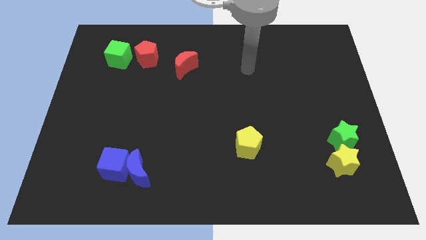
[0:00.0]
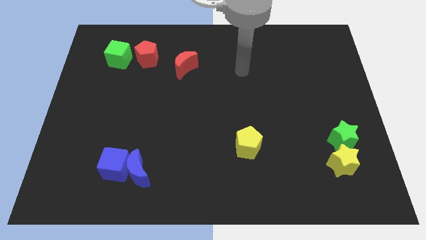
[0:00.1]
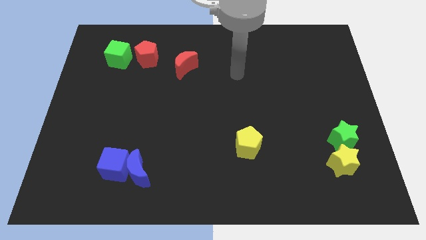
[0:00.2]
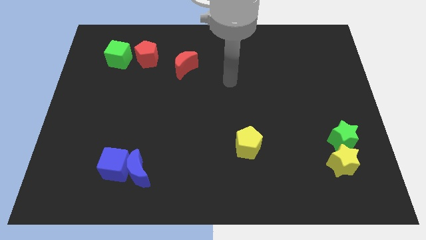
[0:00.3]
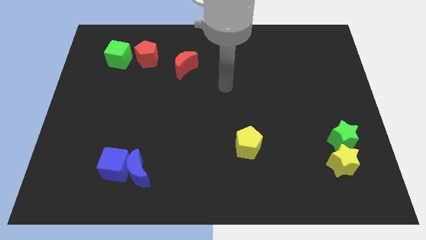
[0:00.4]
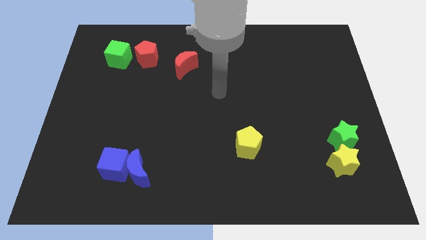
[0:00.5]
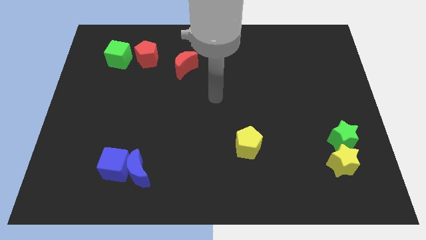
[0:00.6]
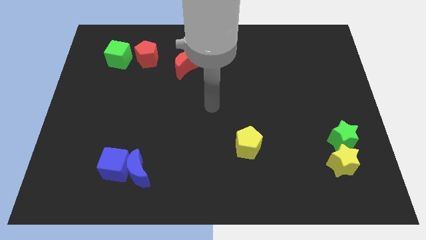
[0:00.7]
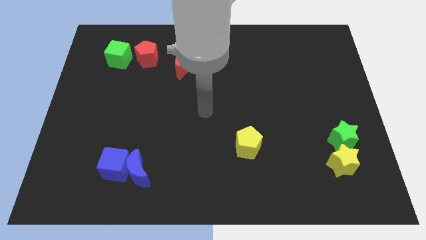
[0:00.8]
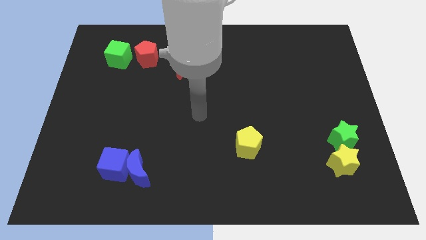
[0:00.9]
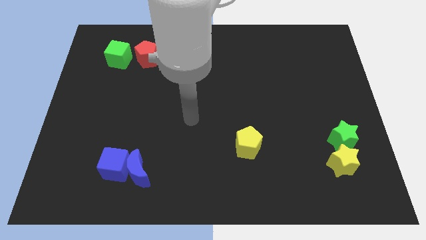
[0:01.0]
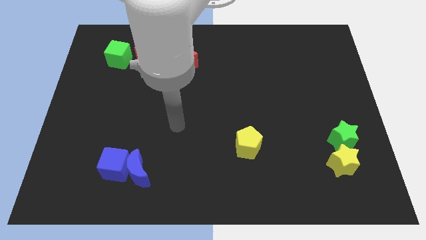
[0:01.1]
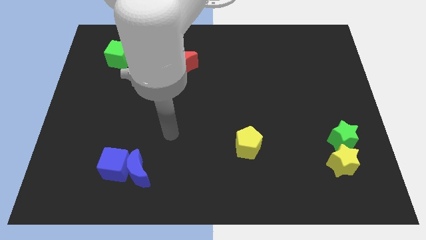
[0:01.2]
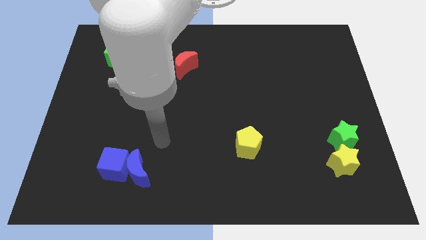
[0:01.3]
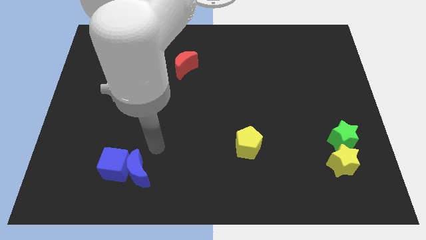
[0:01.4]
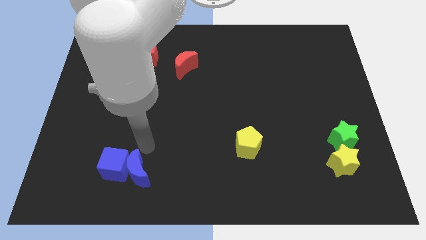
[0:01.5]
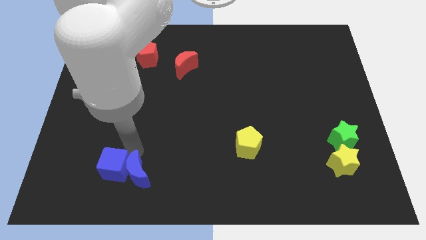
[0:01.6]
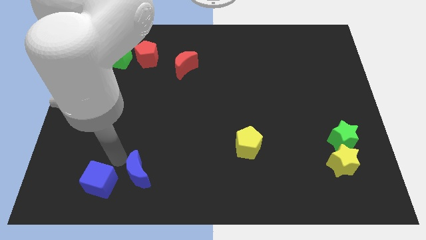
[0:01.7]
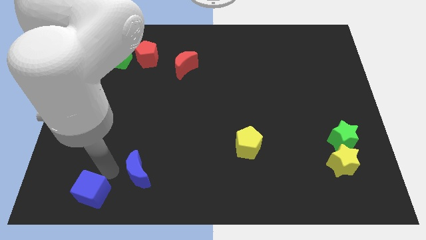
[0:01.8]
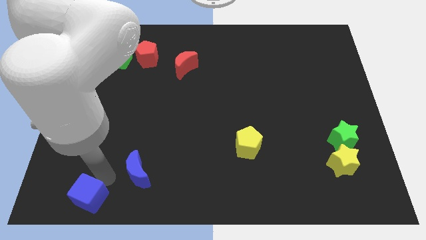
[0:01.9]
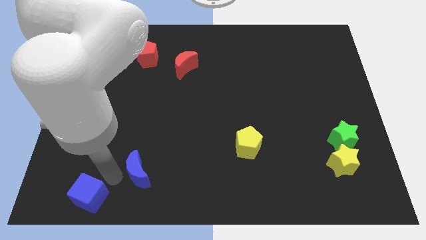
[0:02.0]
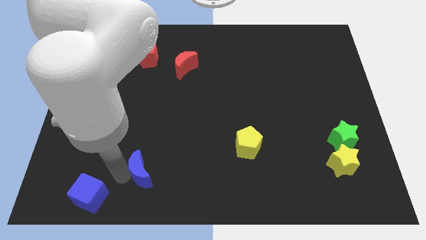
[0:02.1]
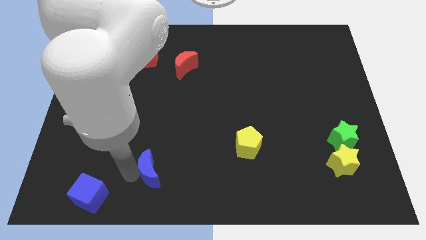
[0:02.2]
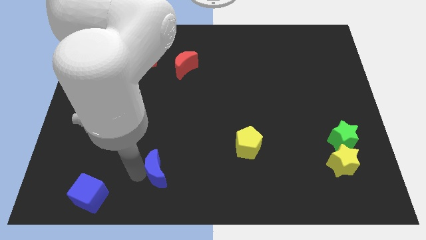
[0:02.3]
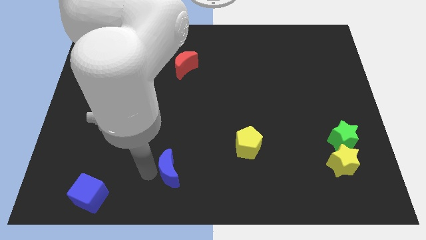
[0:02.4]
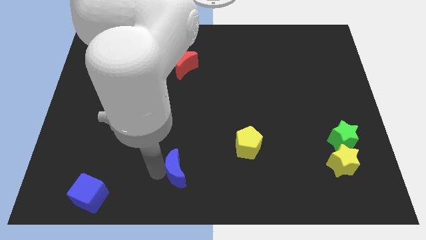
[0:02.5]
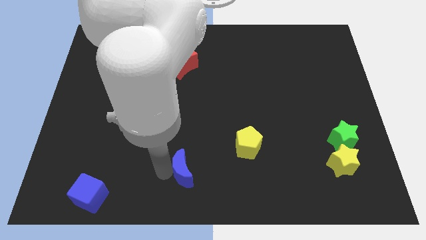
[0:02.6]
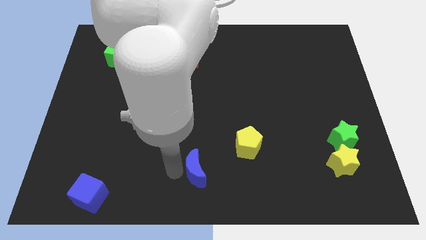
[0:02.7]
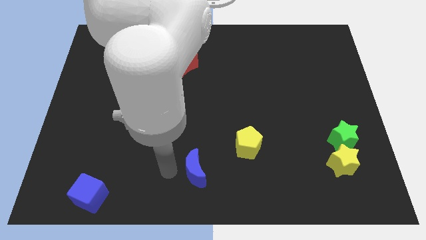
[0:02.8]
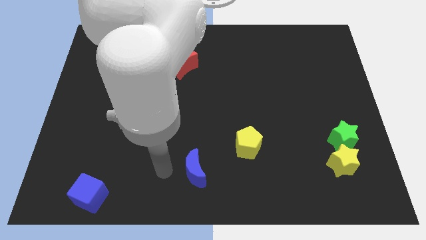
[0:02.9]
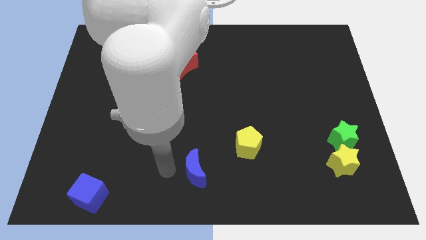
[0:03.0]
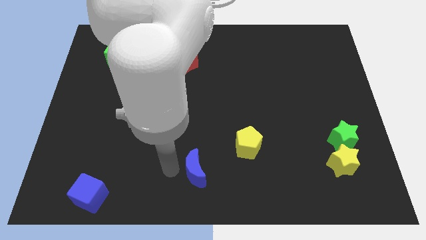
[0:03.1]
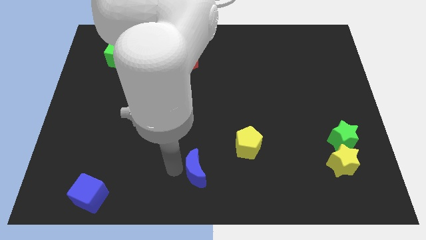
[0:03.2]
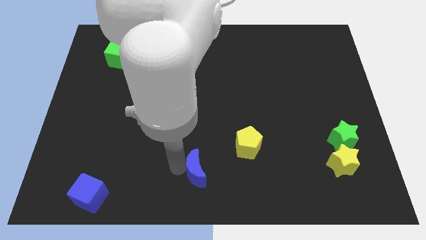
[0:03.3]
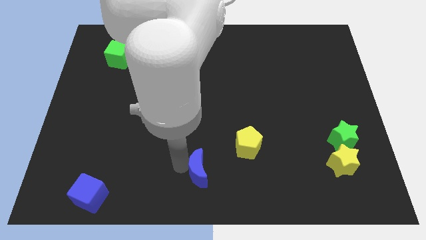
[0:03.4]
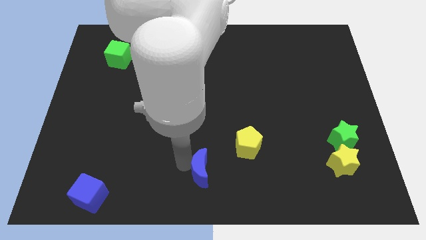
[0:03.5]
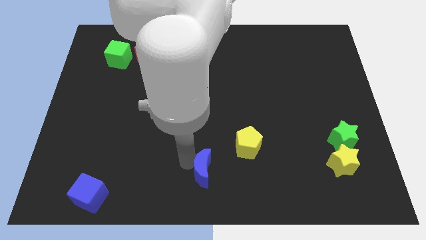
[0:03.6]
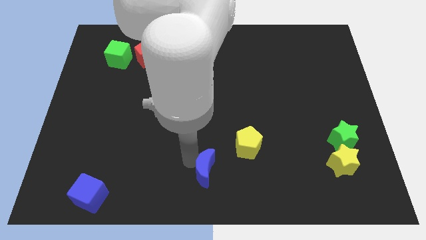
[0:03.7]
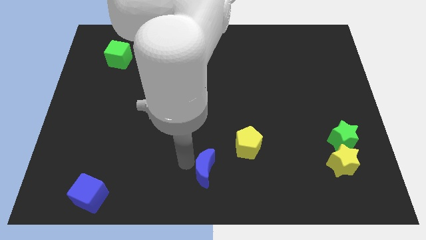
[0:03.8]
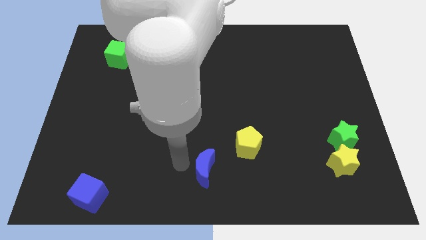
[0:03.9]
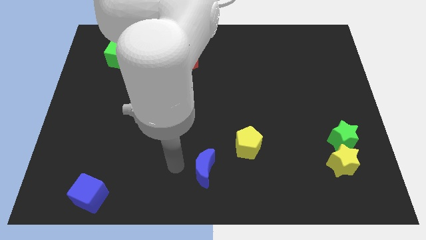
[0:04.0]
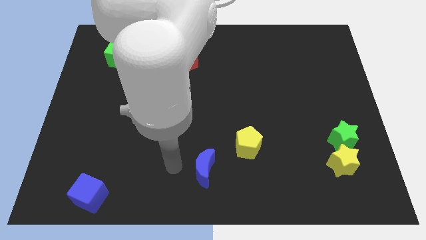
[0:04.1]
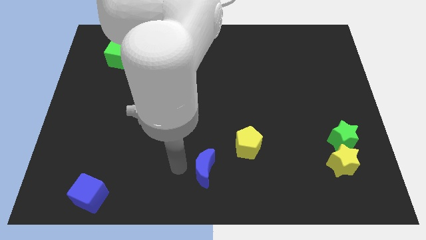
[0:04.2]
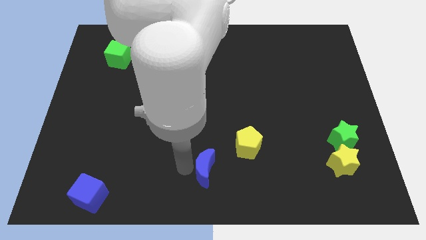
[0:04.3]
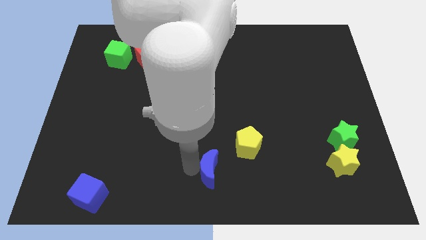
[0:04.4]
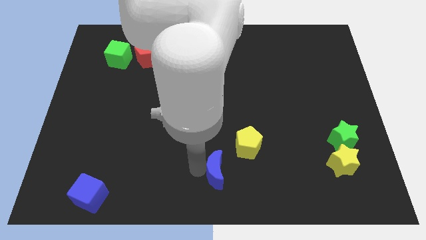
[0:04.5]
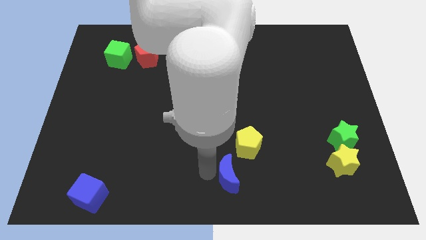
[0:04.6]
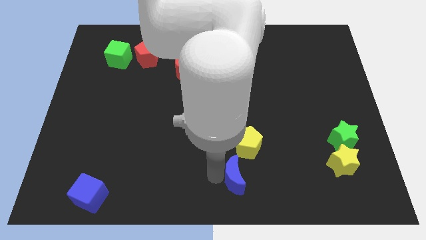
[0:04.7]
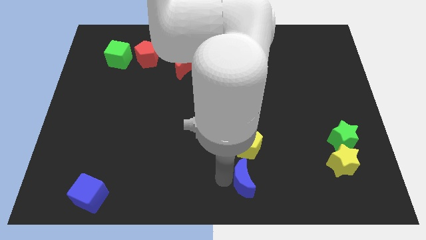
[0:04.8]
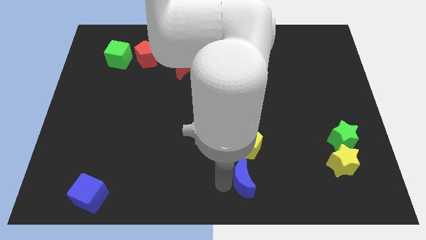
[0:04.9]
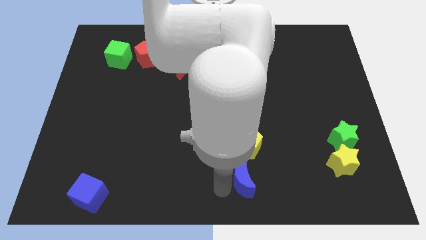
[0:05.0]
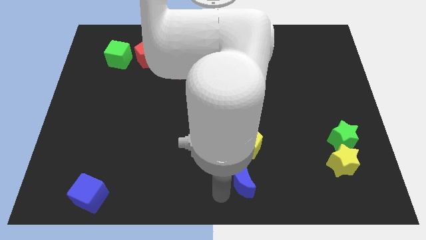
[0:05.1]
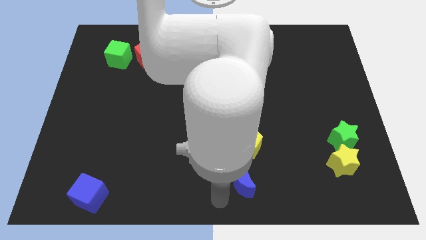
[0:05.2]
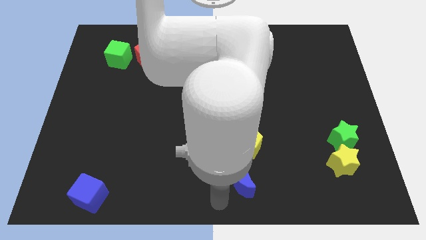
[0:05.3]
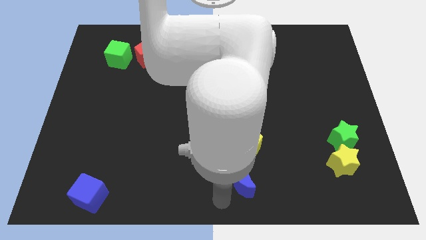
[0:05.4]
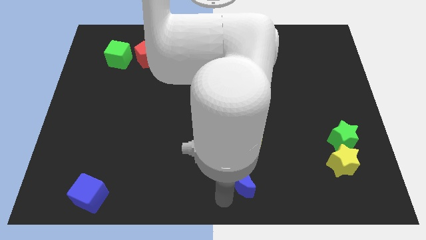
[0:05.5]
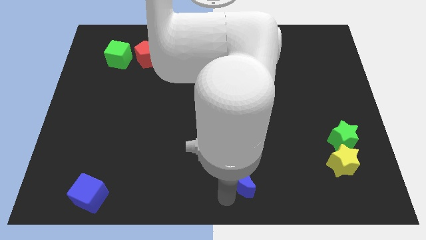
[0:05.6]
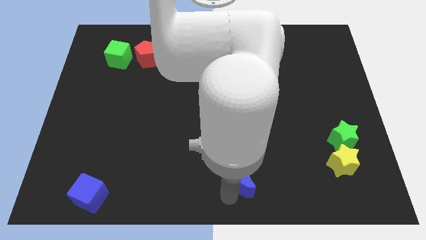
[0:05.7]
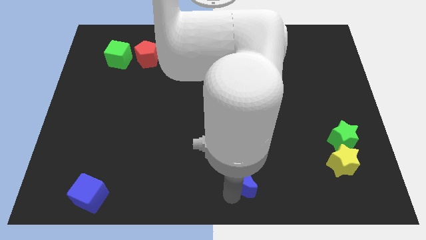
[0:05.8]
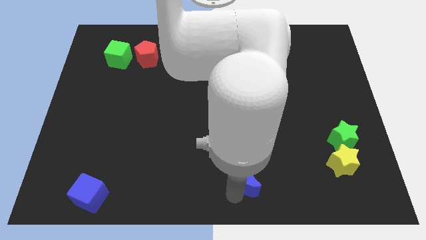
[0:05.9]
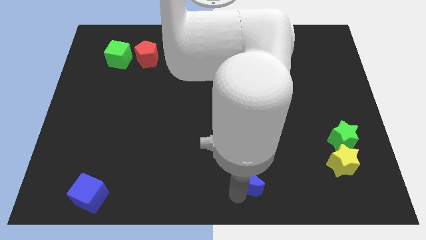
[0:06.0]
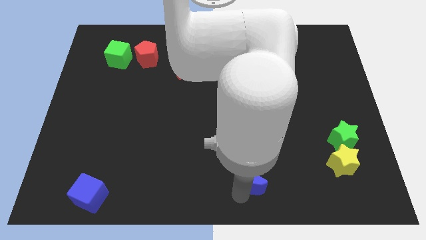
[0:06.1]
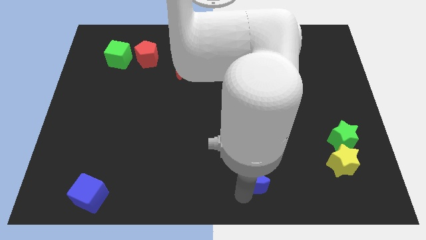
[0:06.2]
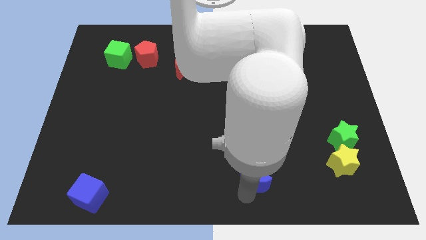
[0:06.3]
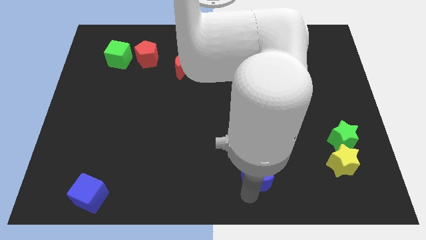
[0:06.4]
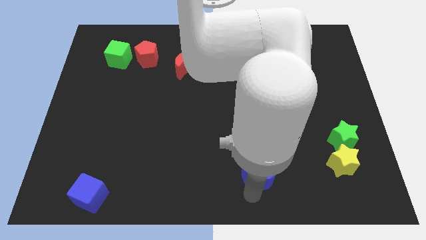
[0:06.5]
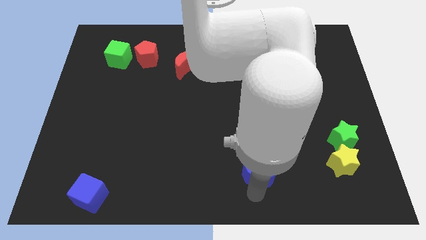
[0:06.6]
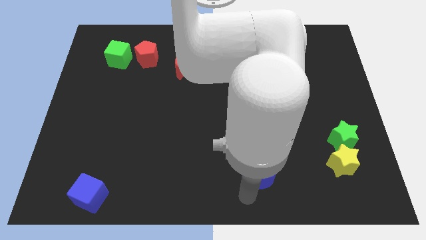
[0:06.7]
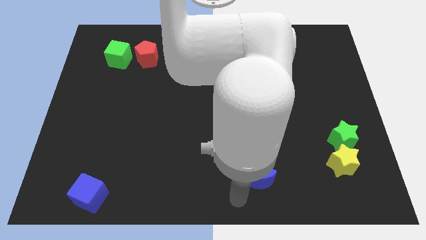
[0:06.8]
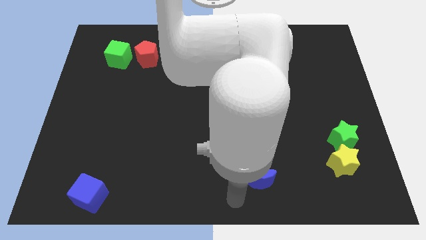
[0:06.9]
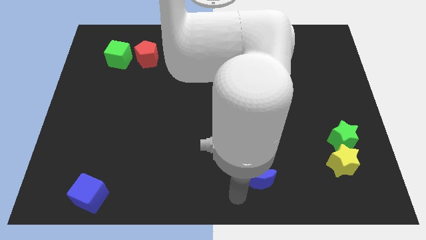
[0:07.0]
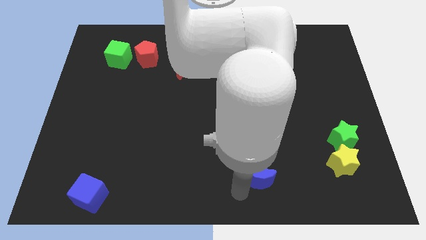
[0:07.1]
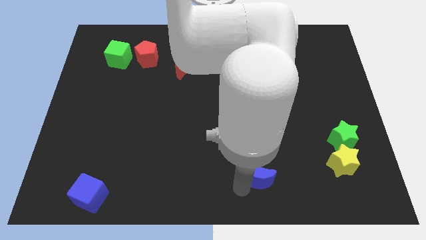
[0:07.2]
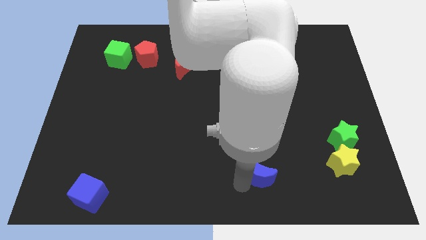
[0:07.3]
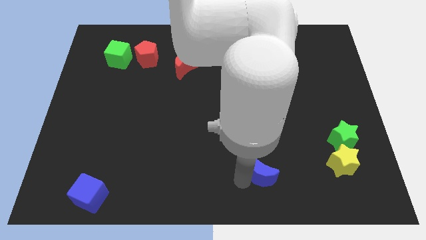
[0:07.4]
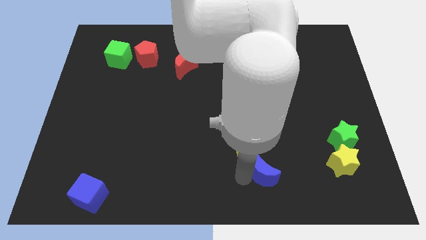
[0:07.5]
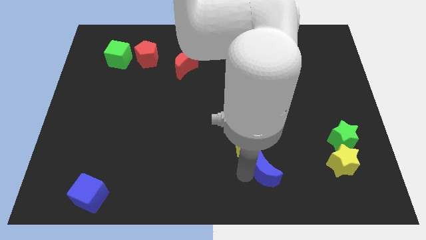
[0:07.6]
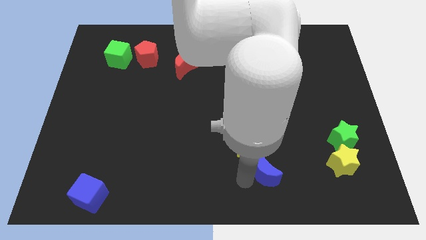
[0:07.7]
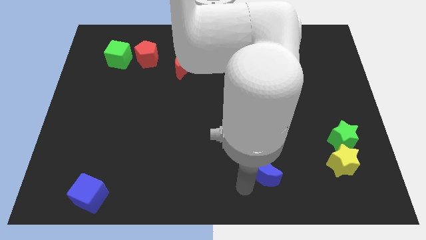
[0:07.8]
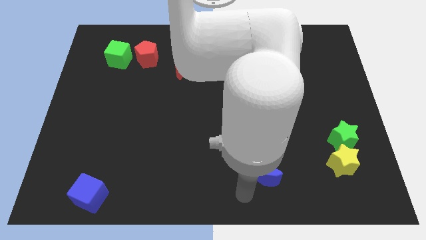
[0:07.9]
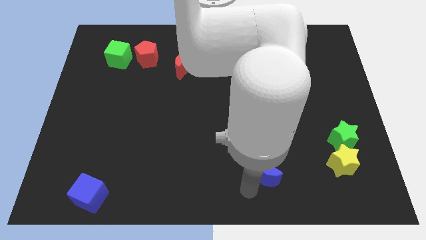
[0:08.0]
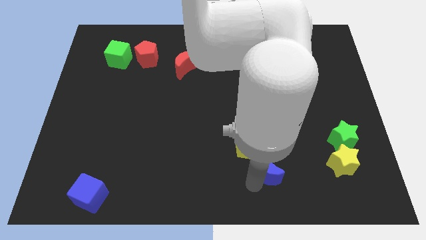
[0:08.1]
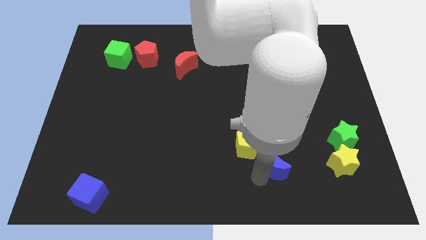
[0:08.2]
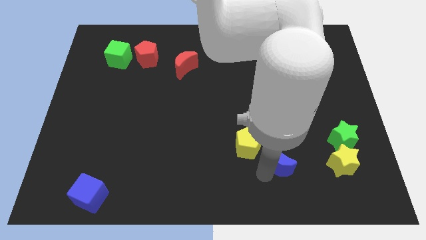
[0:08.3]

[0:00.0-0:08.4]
slide the blue moon to the right side of the yellow pentagon
